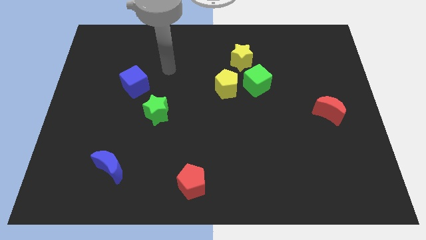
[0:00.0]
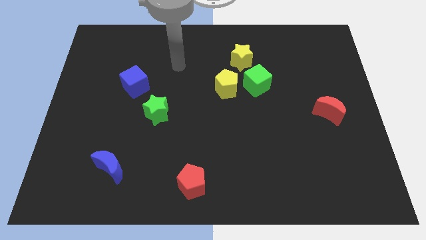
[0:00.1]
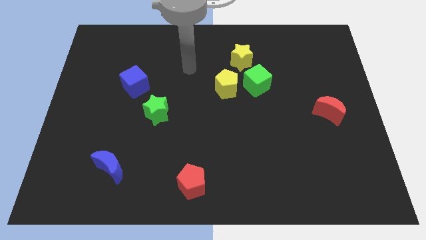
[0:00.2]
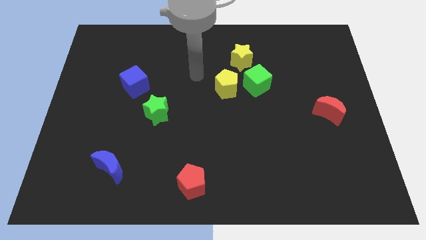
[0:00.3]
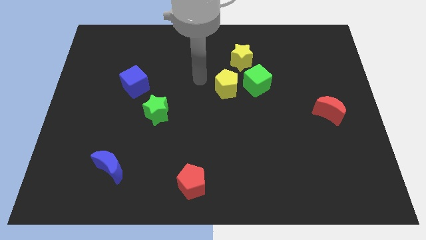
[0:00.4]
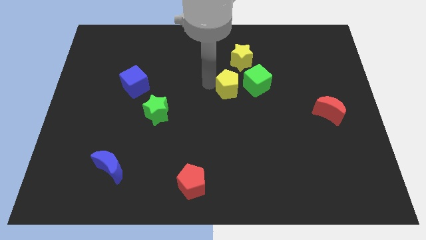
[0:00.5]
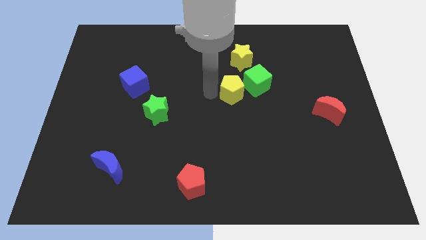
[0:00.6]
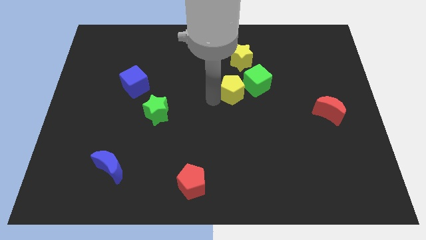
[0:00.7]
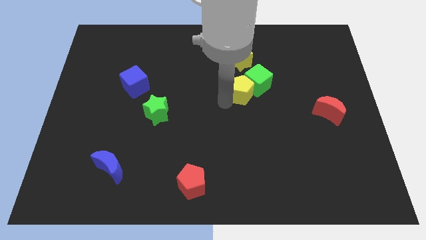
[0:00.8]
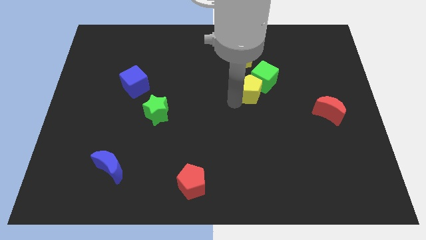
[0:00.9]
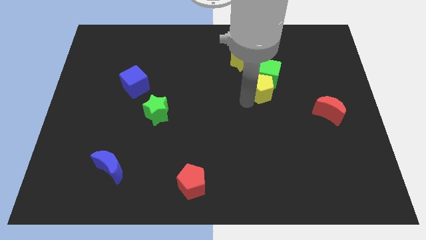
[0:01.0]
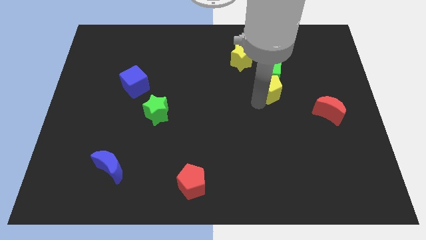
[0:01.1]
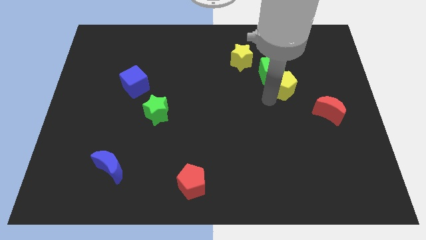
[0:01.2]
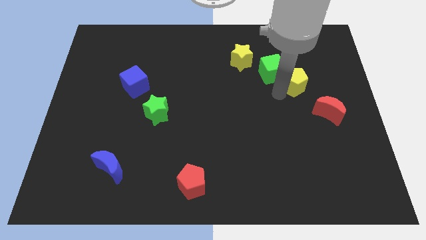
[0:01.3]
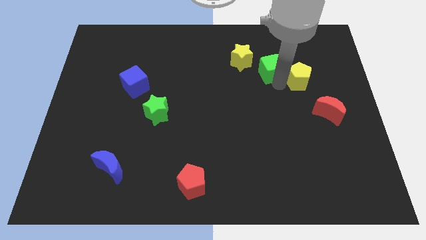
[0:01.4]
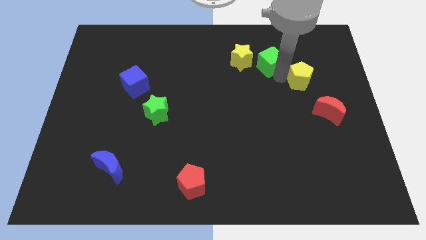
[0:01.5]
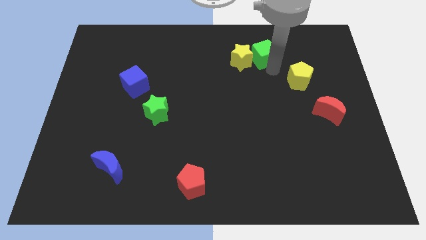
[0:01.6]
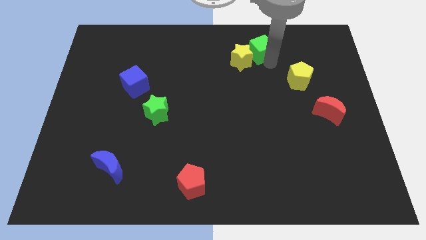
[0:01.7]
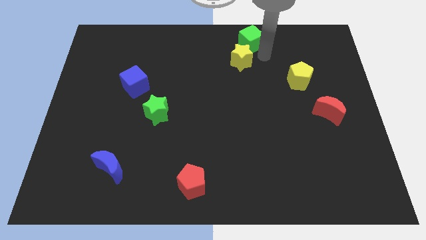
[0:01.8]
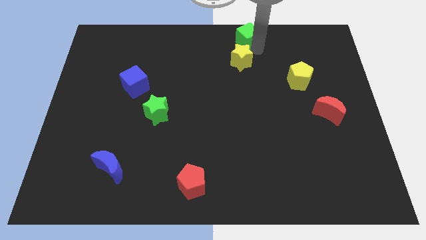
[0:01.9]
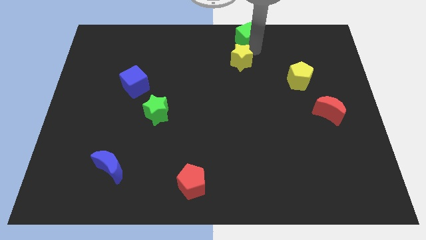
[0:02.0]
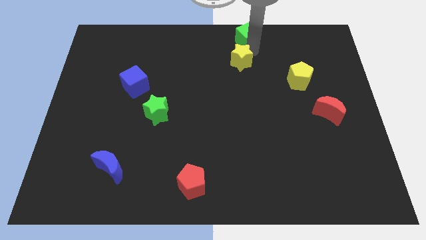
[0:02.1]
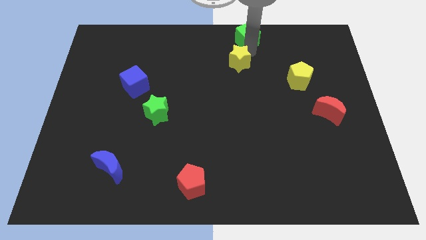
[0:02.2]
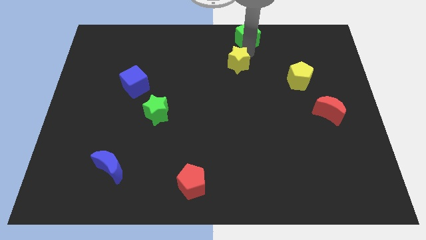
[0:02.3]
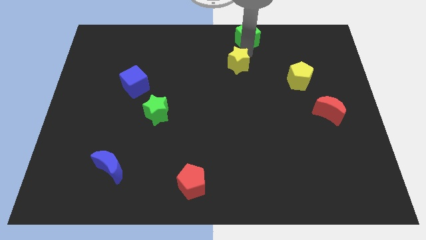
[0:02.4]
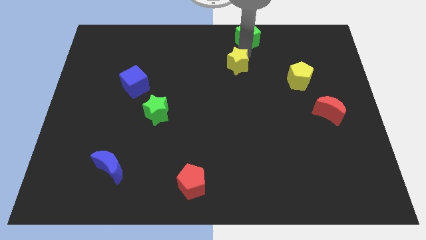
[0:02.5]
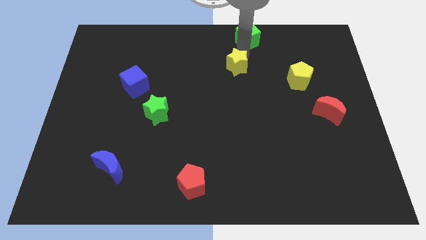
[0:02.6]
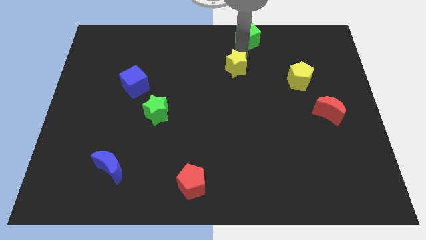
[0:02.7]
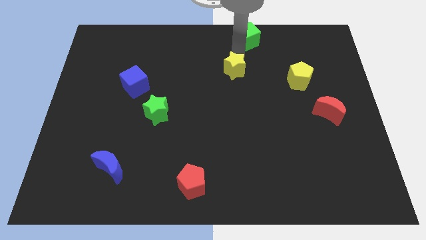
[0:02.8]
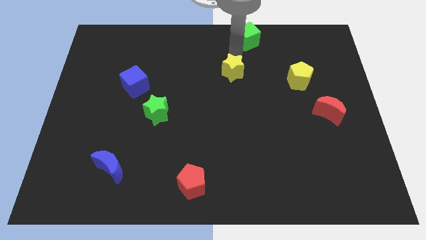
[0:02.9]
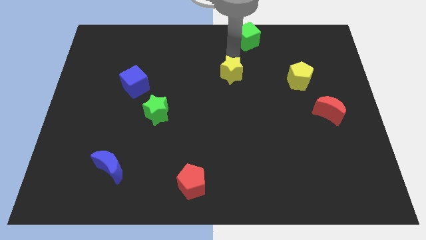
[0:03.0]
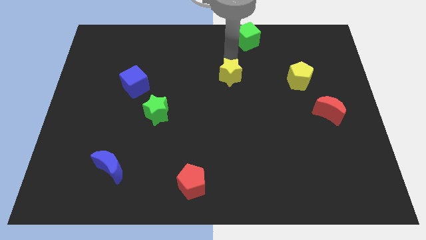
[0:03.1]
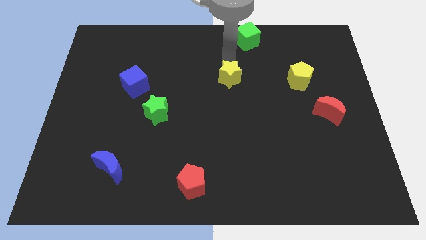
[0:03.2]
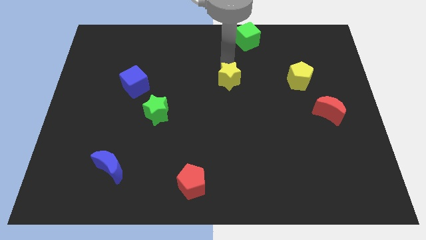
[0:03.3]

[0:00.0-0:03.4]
move the yellow star down and to the left a little bit

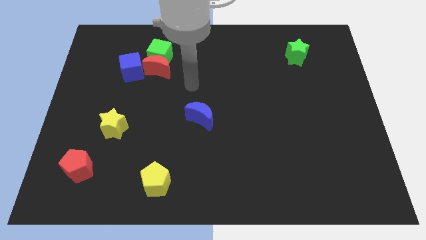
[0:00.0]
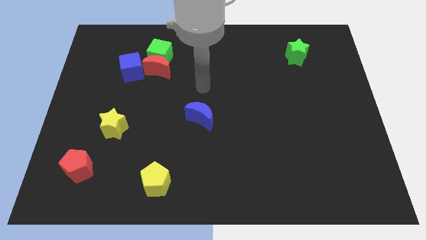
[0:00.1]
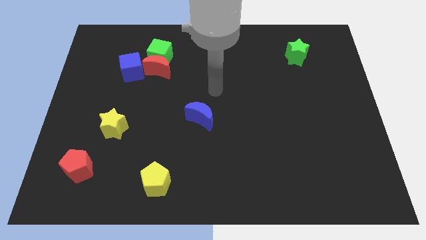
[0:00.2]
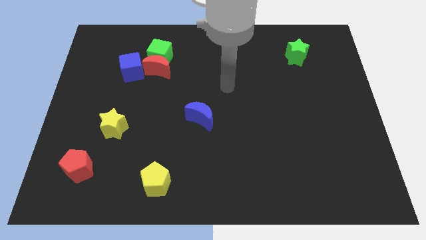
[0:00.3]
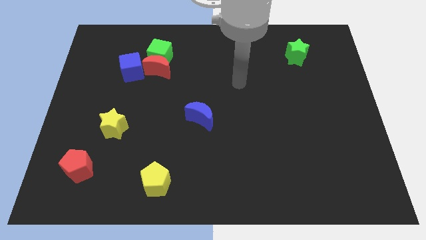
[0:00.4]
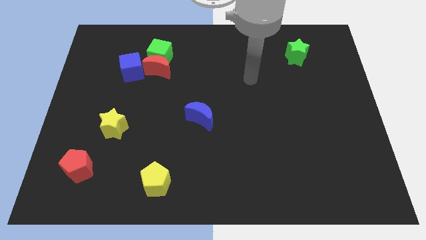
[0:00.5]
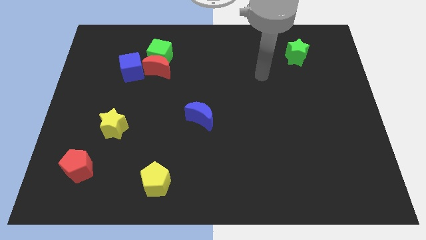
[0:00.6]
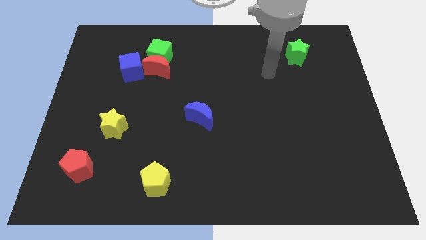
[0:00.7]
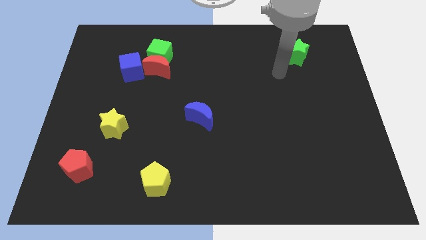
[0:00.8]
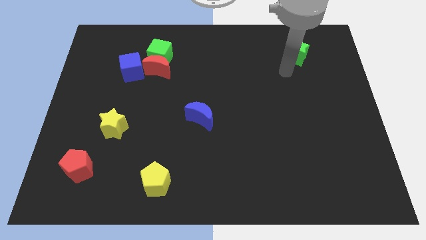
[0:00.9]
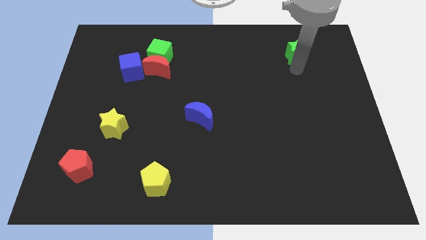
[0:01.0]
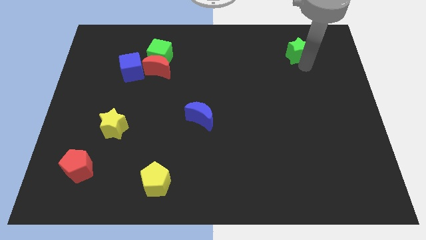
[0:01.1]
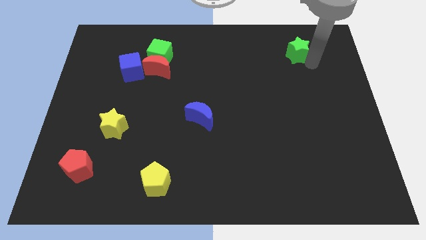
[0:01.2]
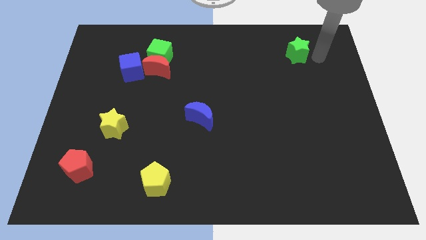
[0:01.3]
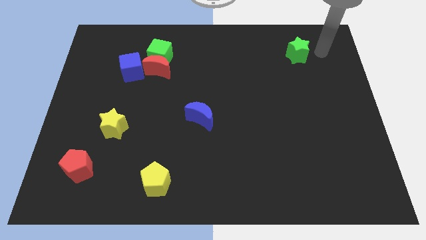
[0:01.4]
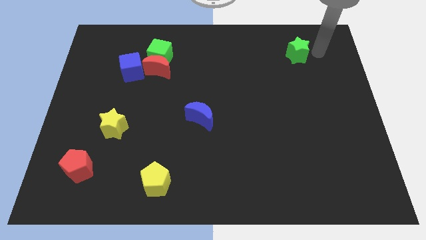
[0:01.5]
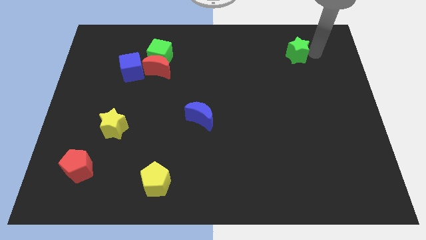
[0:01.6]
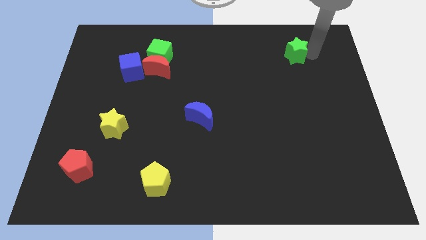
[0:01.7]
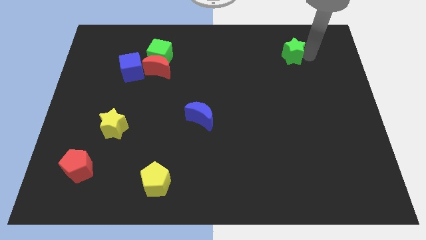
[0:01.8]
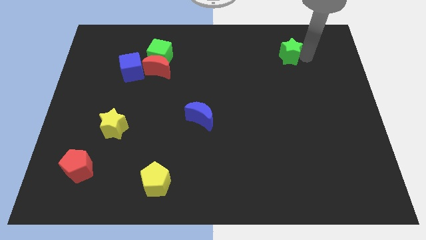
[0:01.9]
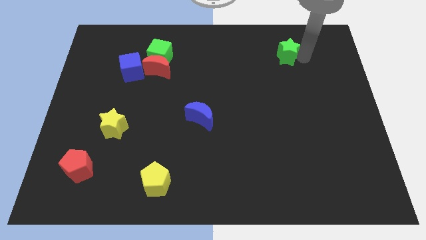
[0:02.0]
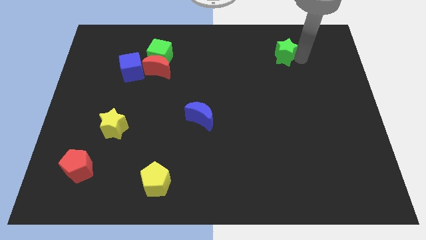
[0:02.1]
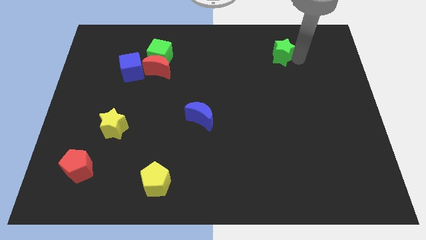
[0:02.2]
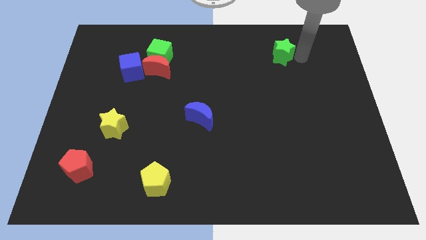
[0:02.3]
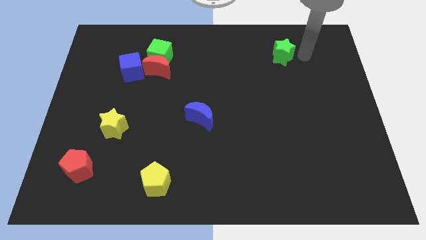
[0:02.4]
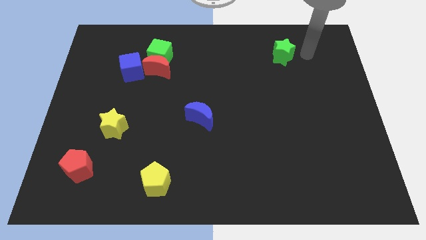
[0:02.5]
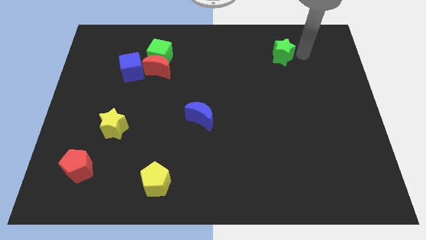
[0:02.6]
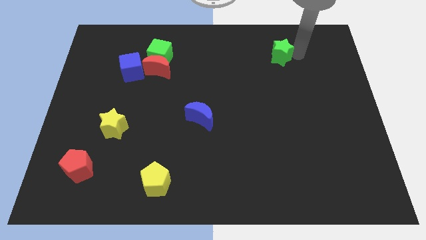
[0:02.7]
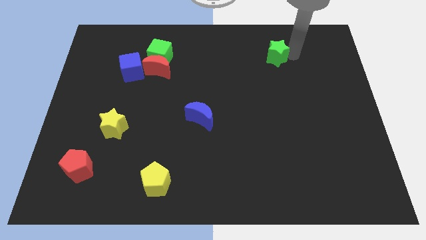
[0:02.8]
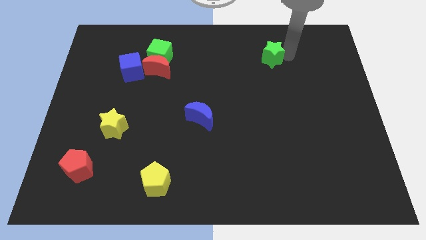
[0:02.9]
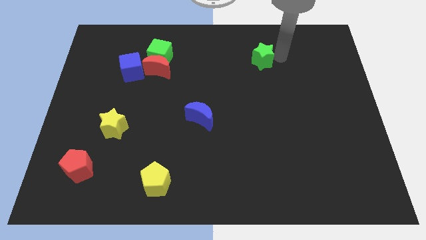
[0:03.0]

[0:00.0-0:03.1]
move the green star a little left

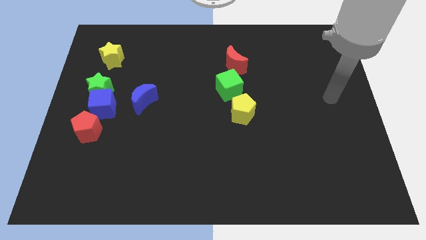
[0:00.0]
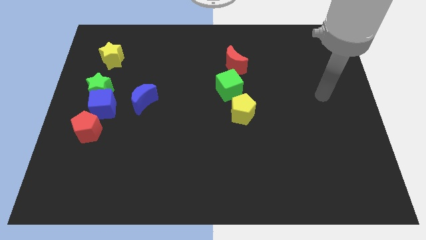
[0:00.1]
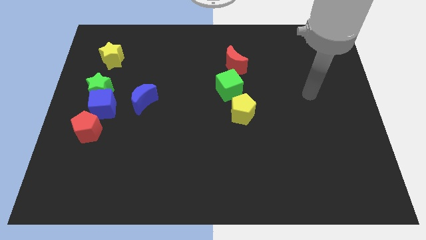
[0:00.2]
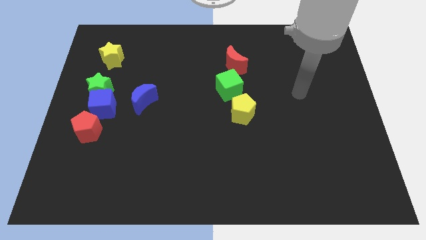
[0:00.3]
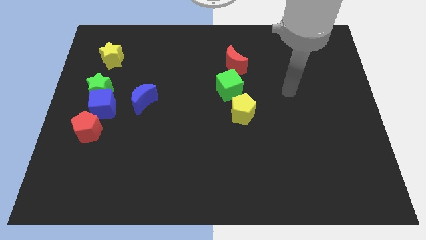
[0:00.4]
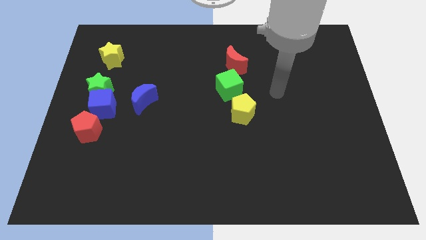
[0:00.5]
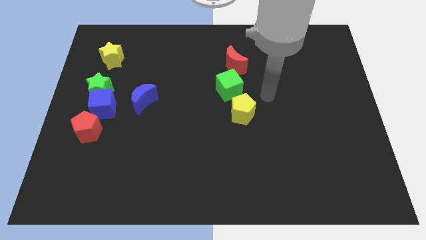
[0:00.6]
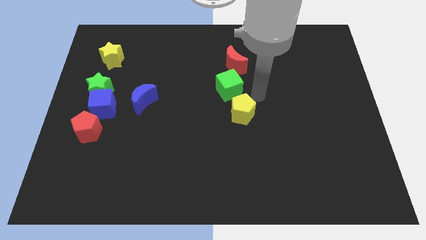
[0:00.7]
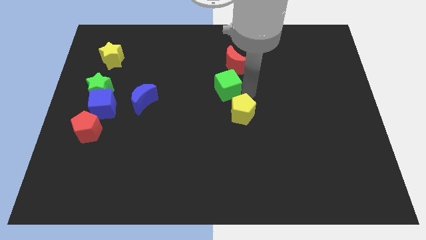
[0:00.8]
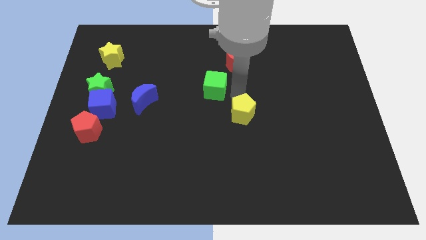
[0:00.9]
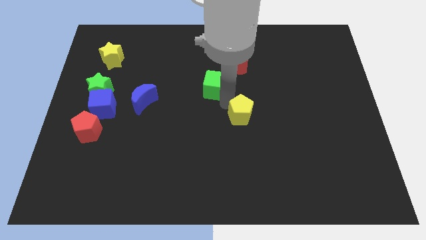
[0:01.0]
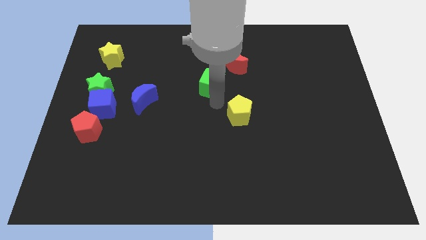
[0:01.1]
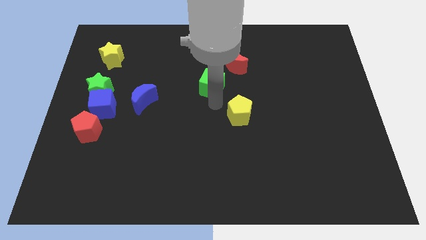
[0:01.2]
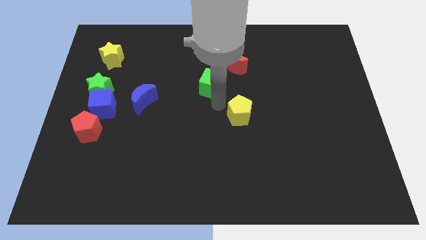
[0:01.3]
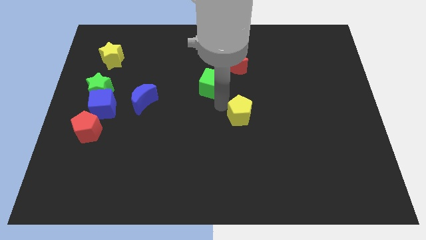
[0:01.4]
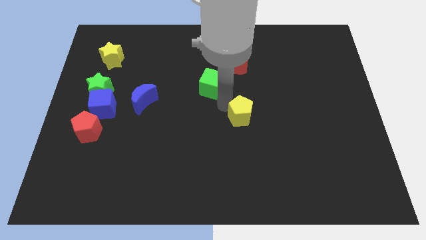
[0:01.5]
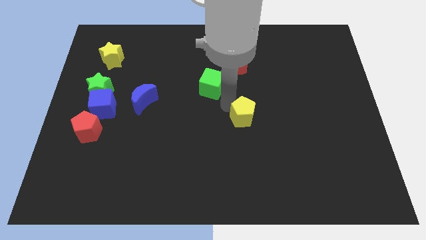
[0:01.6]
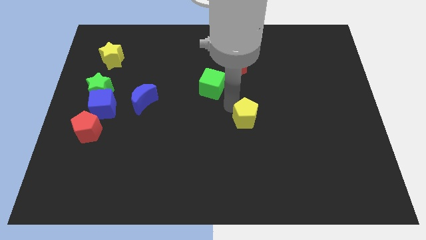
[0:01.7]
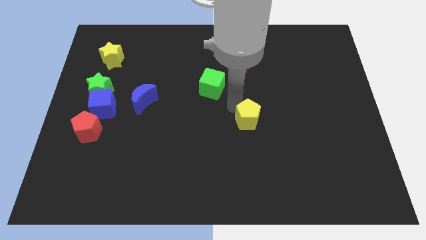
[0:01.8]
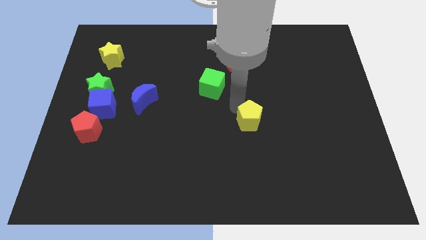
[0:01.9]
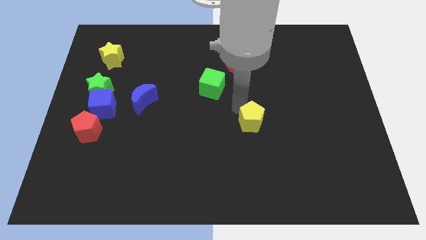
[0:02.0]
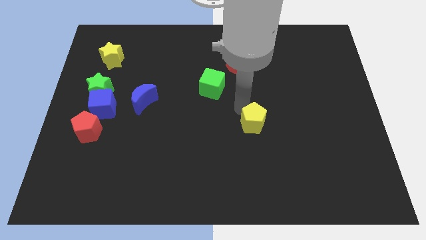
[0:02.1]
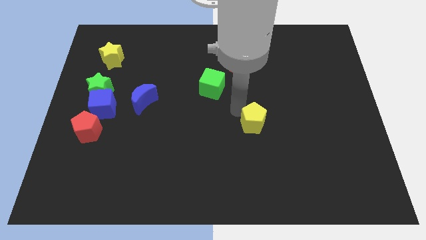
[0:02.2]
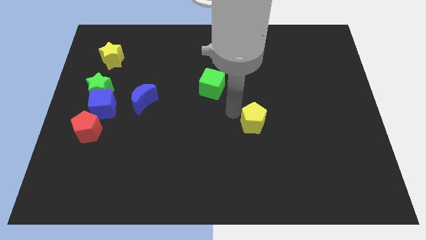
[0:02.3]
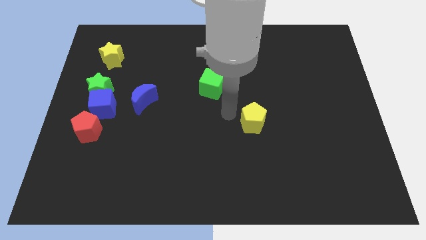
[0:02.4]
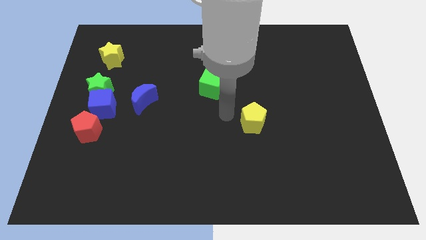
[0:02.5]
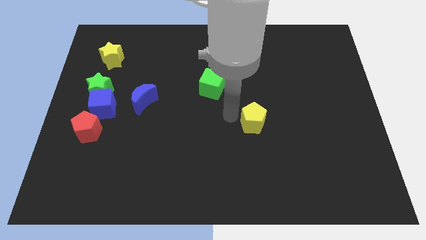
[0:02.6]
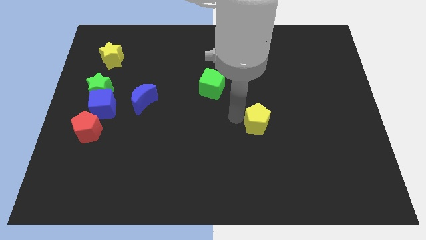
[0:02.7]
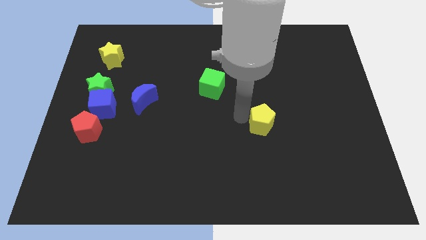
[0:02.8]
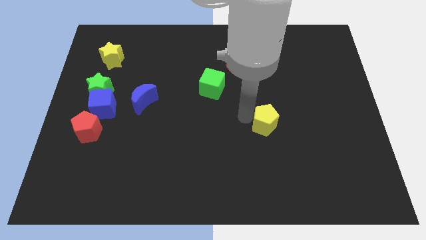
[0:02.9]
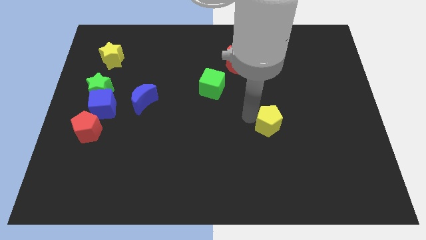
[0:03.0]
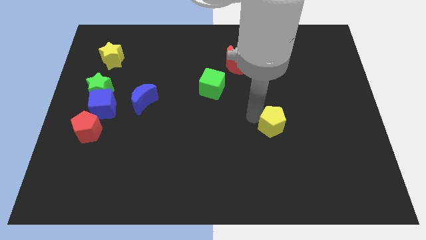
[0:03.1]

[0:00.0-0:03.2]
slightly slide the yellow pentagon diagonally down and to the right
